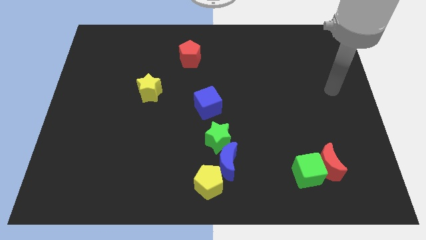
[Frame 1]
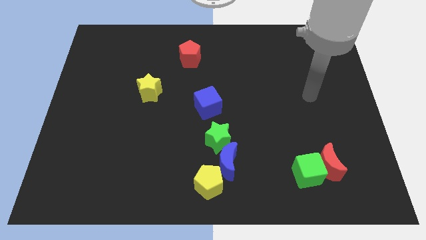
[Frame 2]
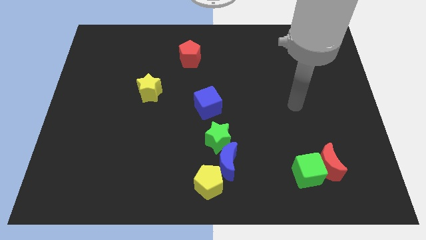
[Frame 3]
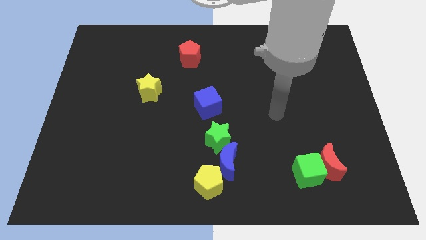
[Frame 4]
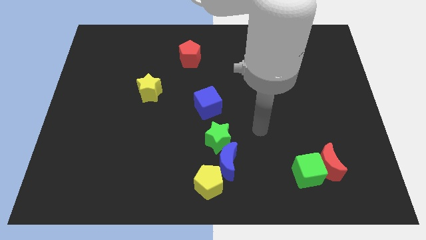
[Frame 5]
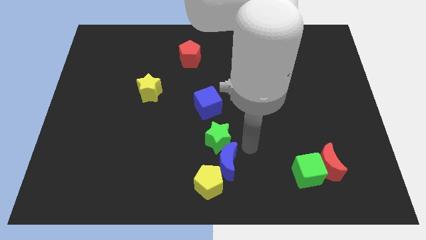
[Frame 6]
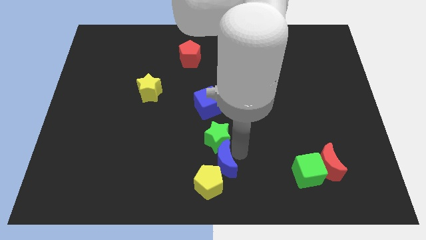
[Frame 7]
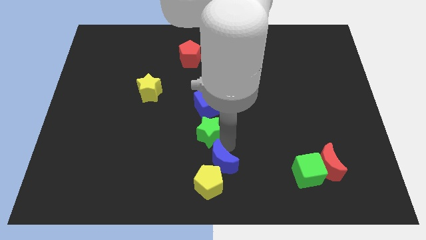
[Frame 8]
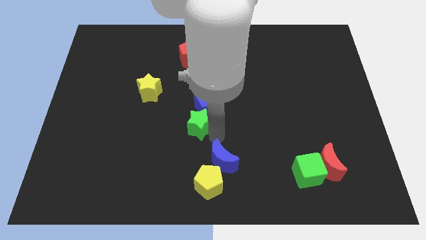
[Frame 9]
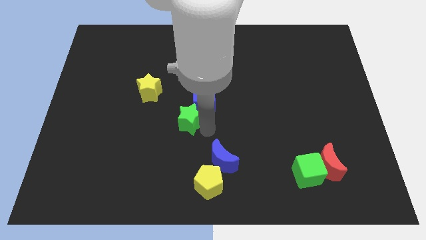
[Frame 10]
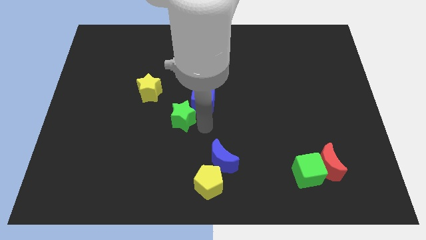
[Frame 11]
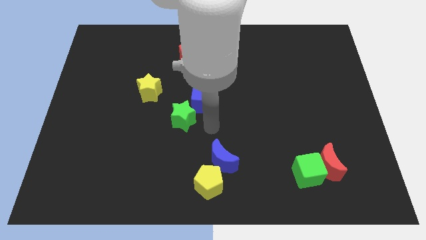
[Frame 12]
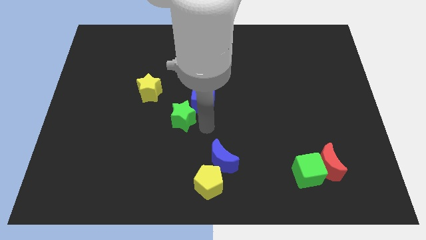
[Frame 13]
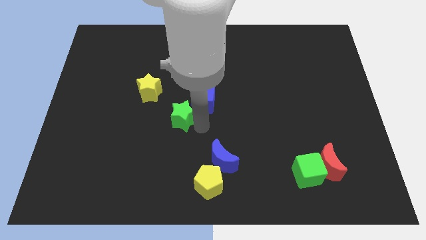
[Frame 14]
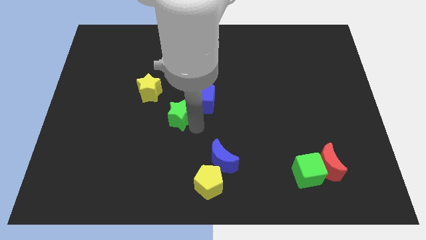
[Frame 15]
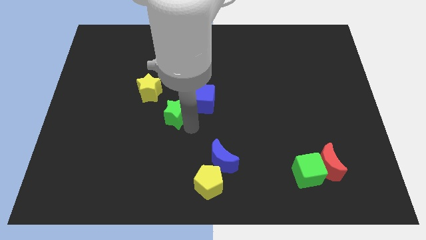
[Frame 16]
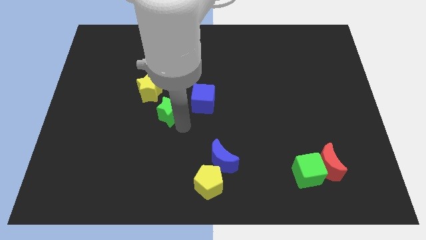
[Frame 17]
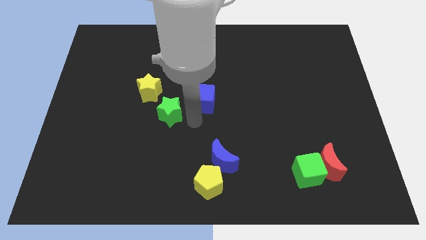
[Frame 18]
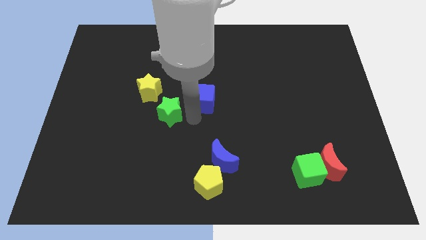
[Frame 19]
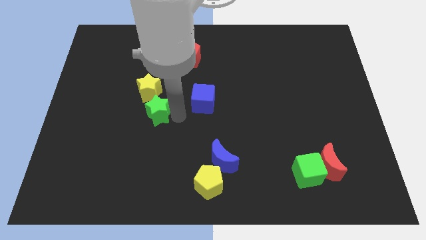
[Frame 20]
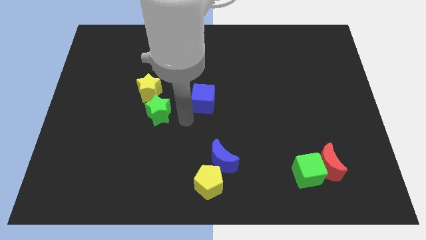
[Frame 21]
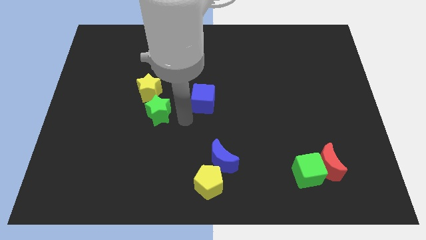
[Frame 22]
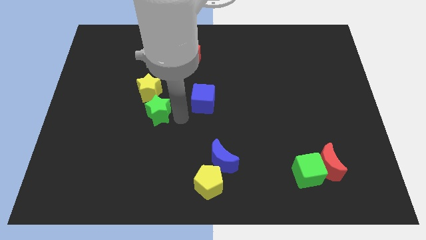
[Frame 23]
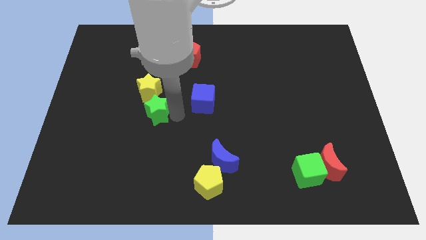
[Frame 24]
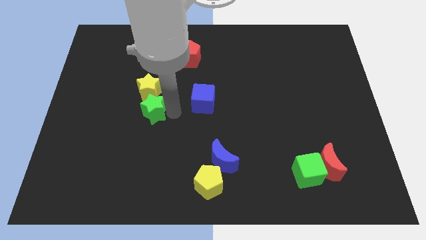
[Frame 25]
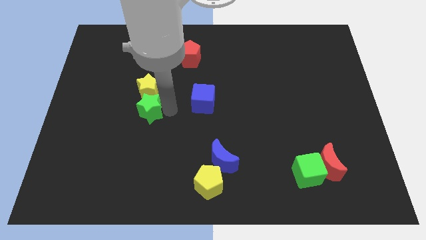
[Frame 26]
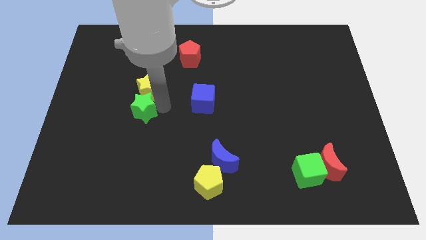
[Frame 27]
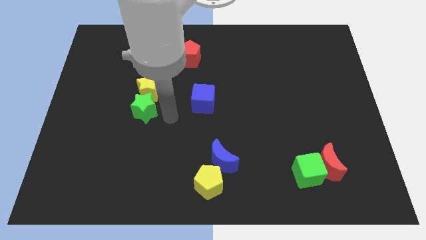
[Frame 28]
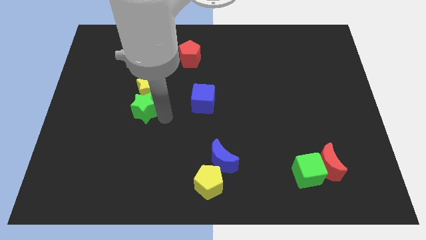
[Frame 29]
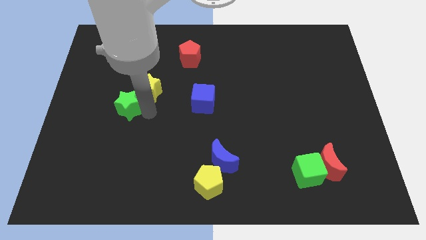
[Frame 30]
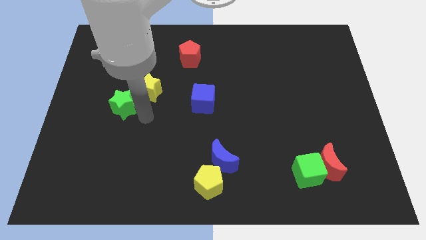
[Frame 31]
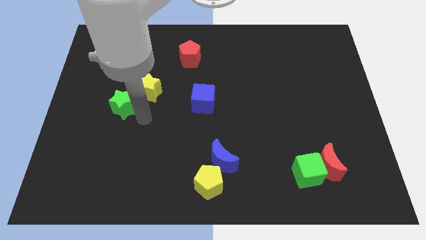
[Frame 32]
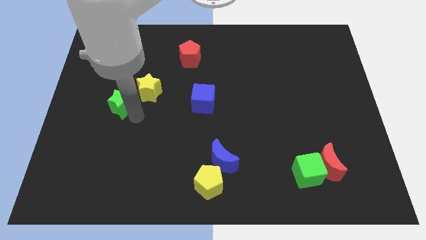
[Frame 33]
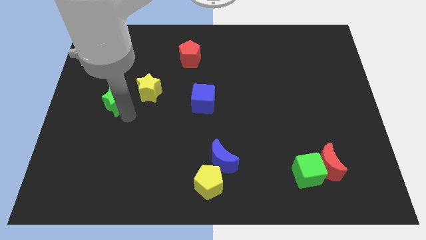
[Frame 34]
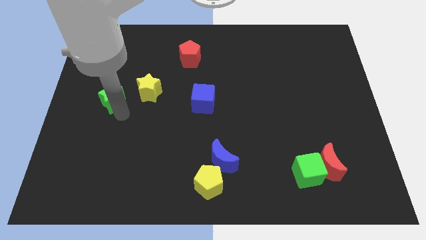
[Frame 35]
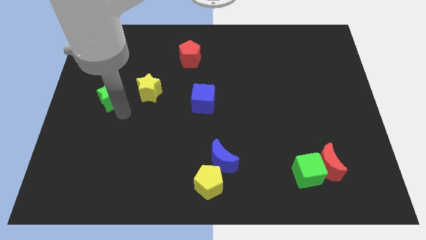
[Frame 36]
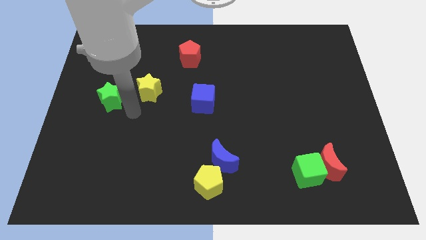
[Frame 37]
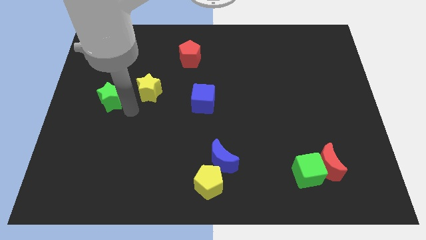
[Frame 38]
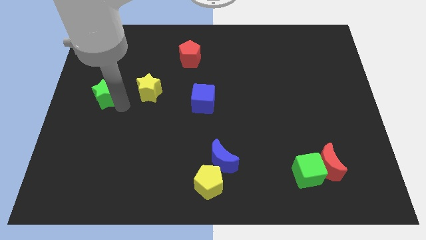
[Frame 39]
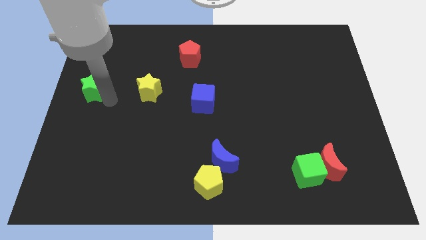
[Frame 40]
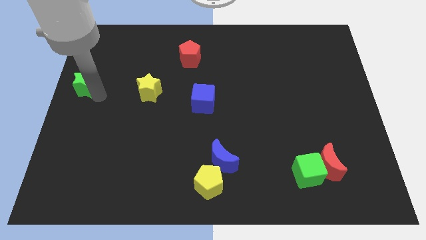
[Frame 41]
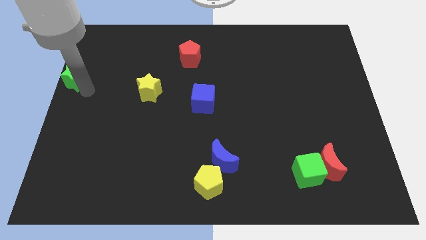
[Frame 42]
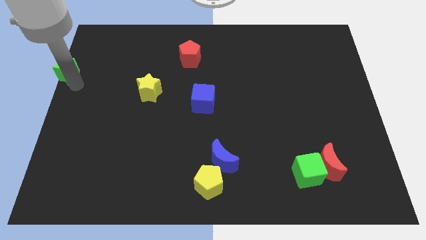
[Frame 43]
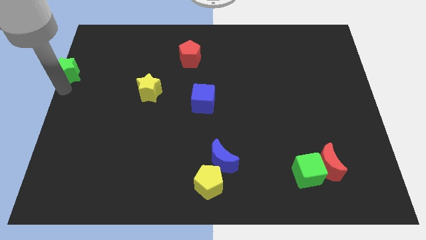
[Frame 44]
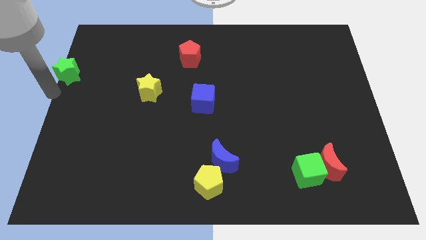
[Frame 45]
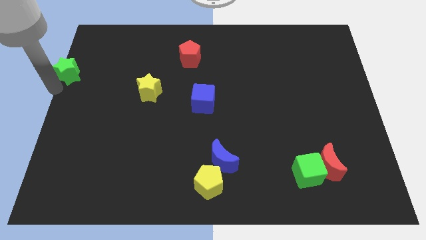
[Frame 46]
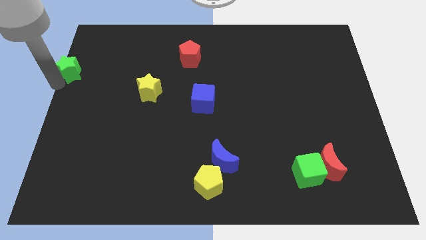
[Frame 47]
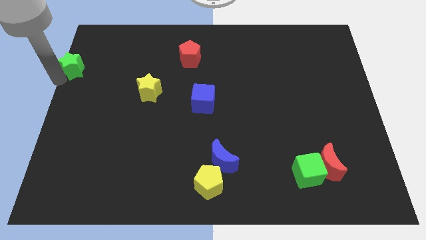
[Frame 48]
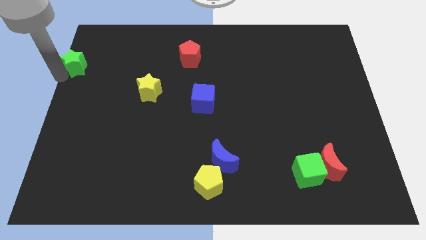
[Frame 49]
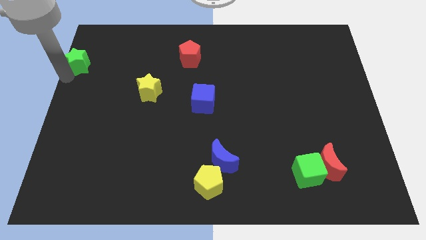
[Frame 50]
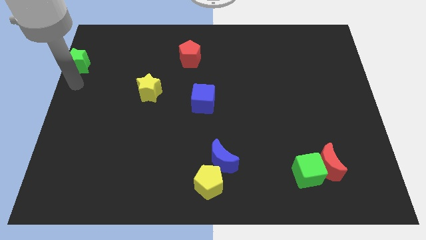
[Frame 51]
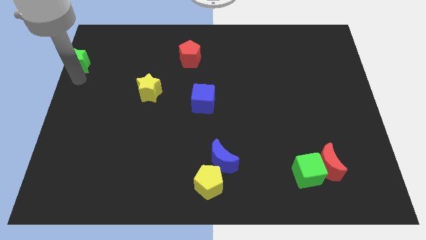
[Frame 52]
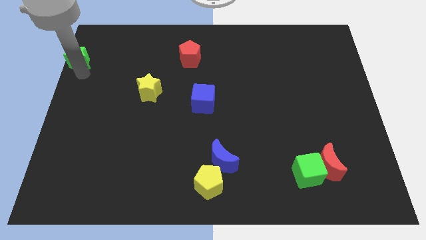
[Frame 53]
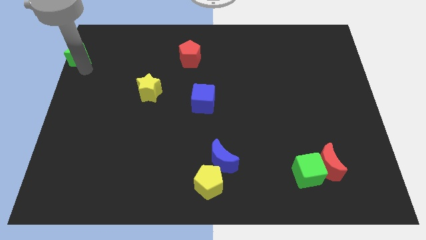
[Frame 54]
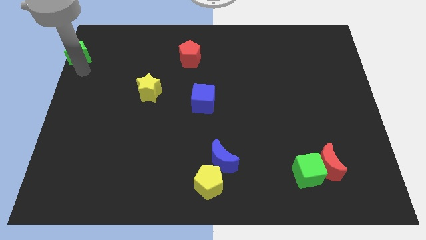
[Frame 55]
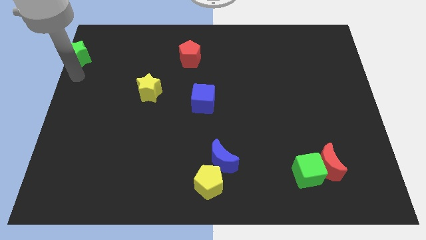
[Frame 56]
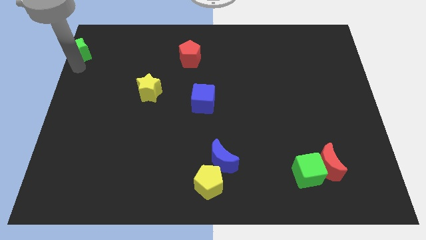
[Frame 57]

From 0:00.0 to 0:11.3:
slide the green star to the top left corner
